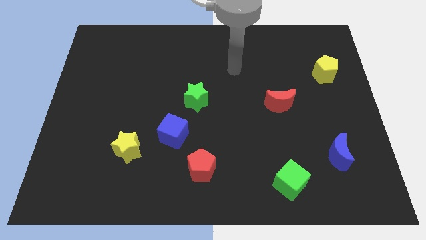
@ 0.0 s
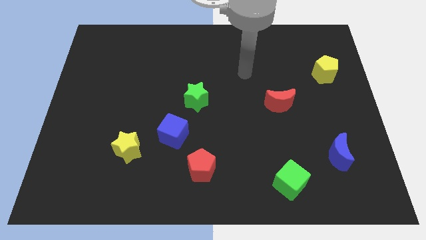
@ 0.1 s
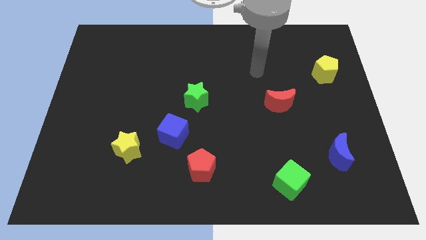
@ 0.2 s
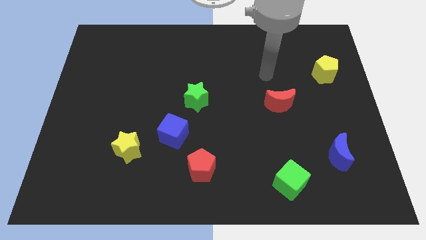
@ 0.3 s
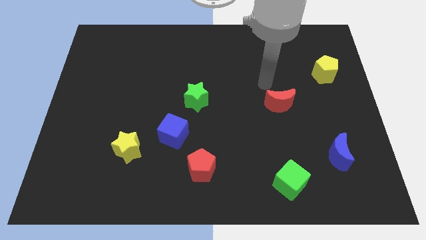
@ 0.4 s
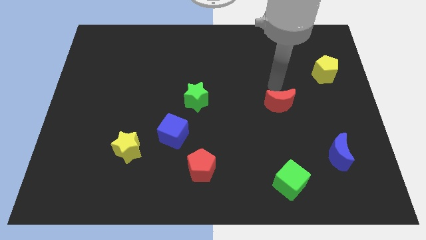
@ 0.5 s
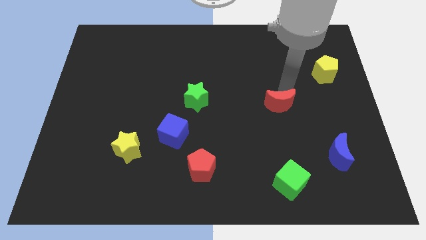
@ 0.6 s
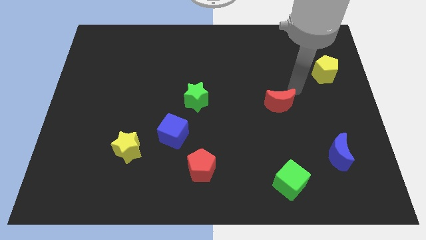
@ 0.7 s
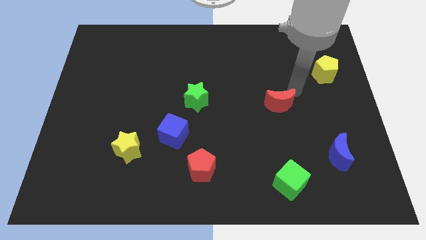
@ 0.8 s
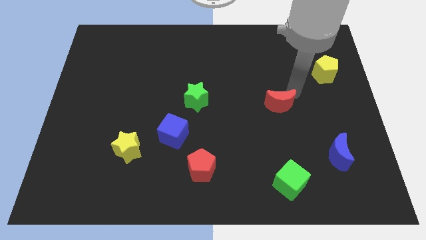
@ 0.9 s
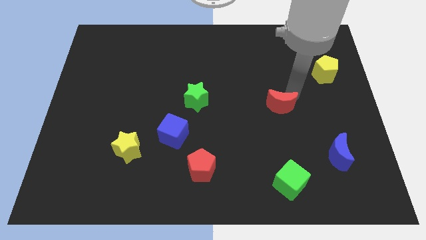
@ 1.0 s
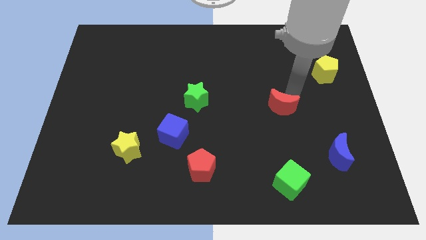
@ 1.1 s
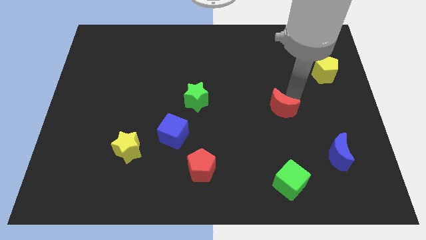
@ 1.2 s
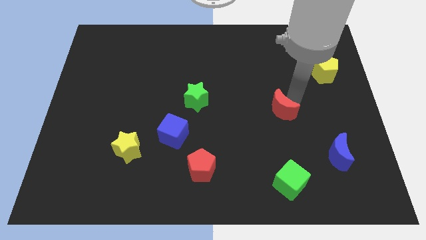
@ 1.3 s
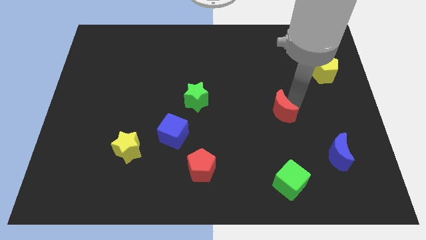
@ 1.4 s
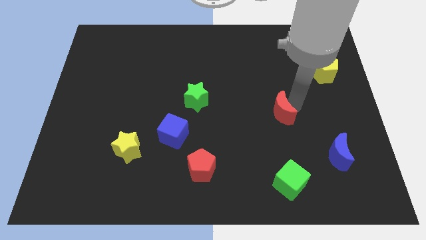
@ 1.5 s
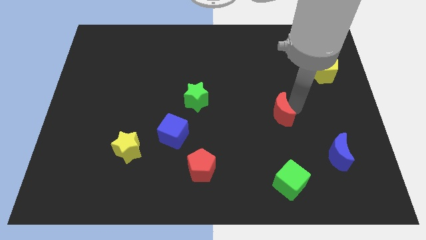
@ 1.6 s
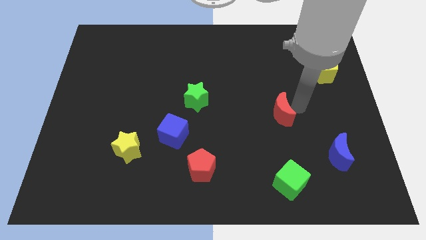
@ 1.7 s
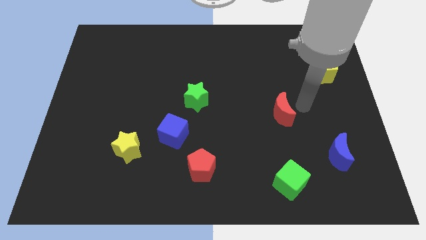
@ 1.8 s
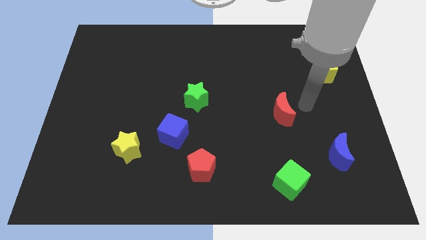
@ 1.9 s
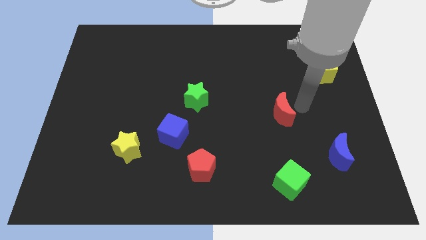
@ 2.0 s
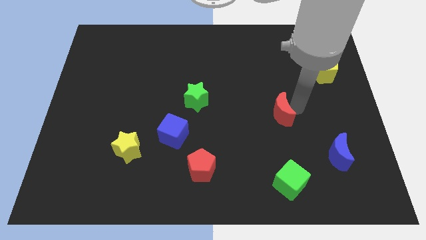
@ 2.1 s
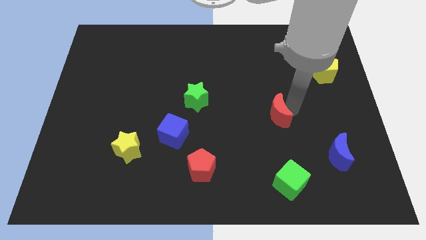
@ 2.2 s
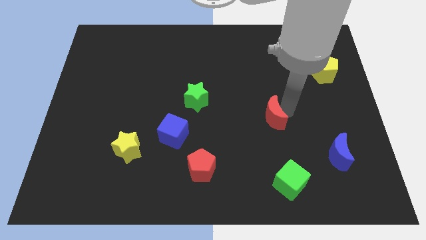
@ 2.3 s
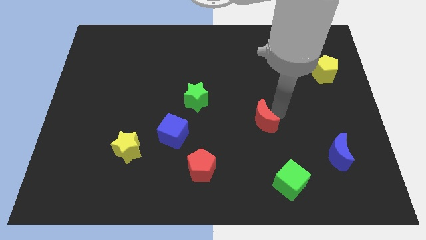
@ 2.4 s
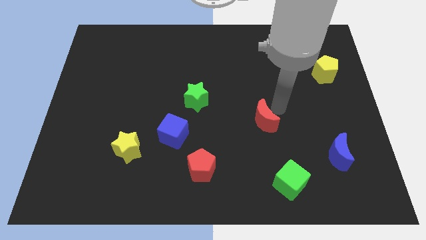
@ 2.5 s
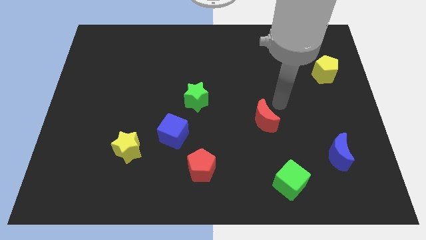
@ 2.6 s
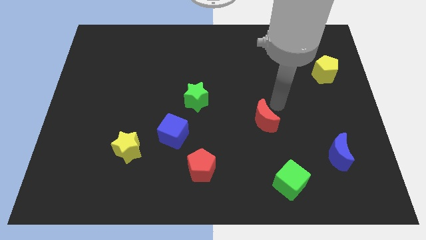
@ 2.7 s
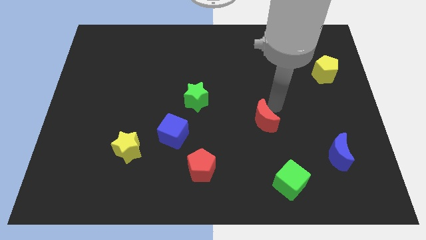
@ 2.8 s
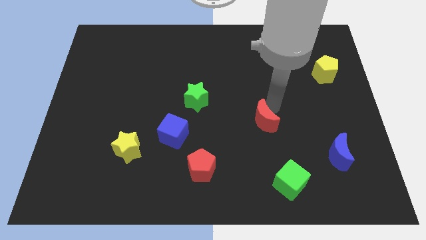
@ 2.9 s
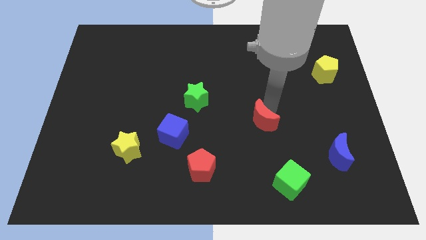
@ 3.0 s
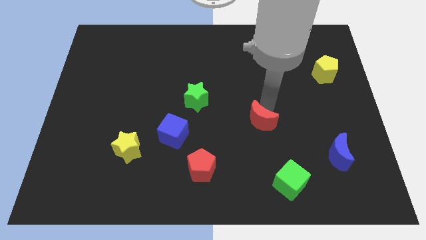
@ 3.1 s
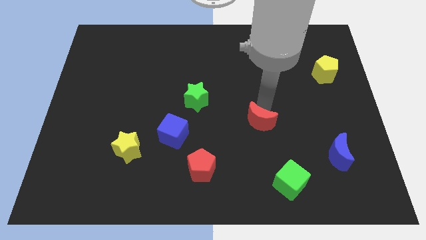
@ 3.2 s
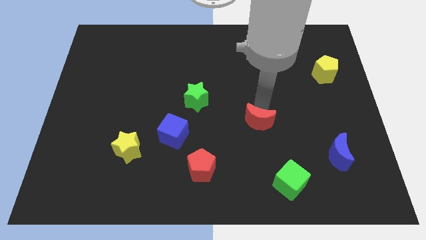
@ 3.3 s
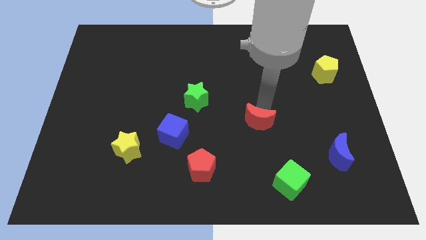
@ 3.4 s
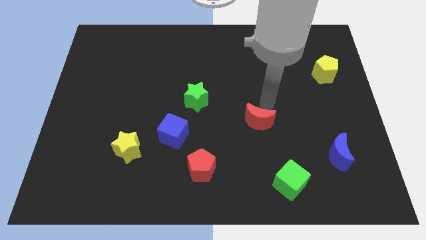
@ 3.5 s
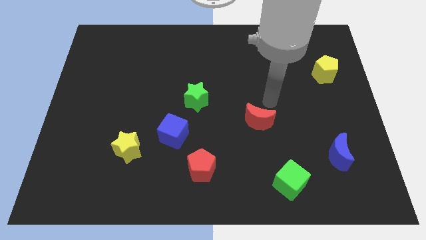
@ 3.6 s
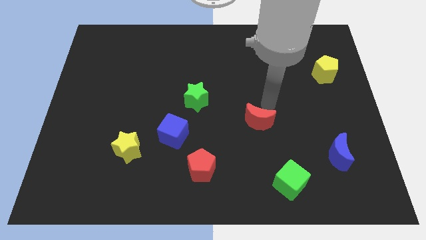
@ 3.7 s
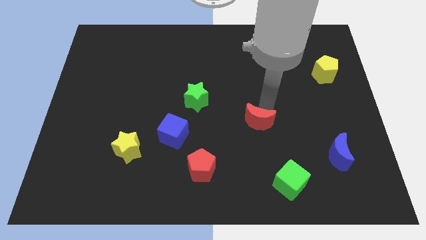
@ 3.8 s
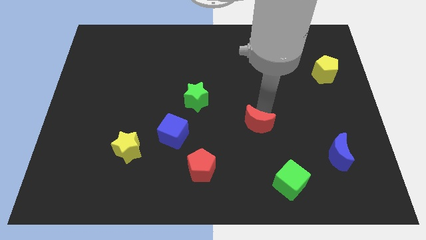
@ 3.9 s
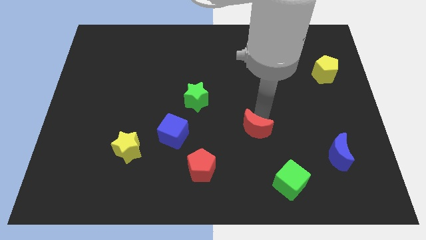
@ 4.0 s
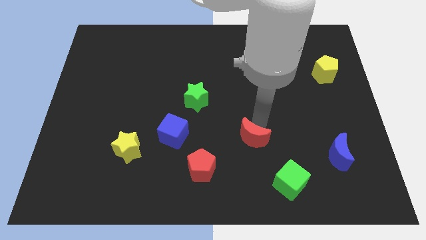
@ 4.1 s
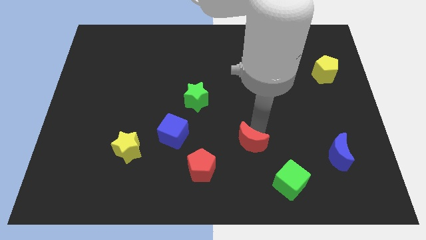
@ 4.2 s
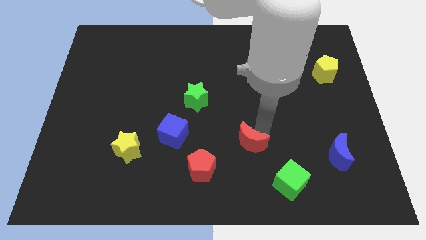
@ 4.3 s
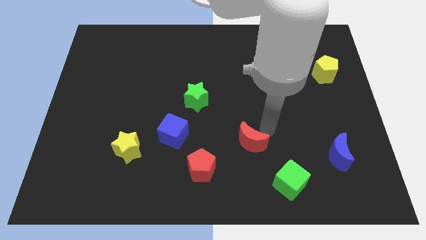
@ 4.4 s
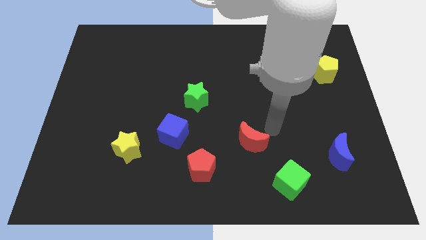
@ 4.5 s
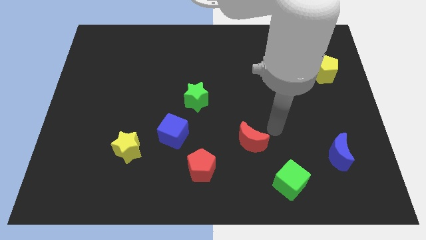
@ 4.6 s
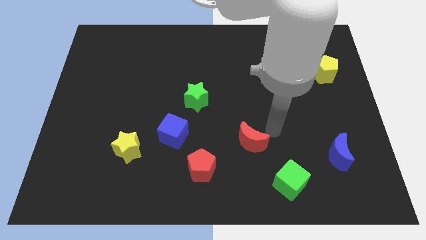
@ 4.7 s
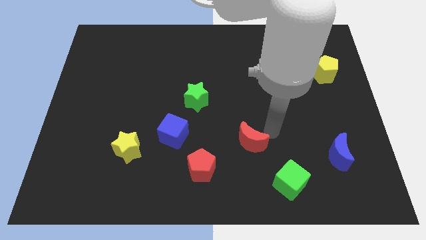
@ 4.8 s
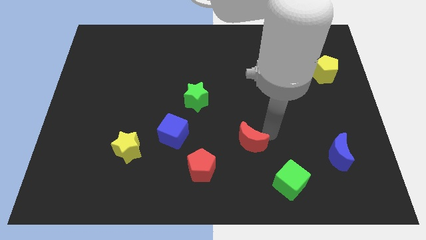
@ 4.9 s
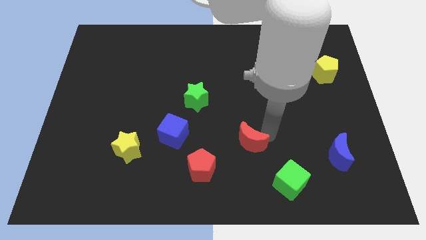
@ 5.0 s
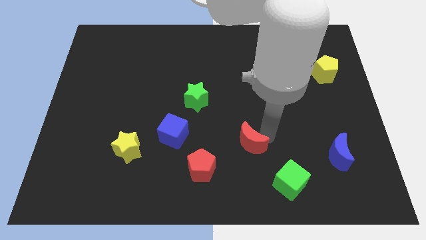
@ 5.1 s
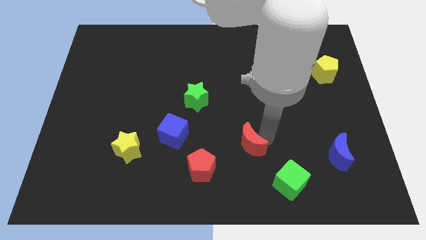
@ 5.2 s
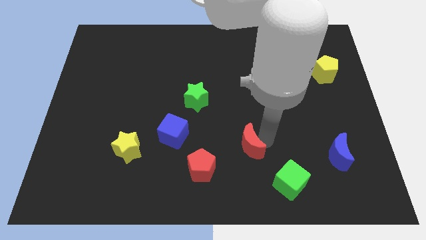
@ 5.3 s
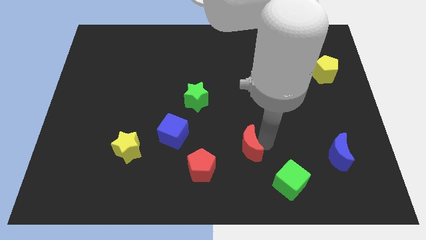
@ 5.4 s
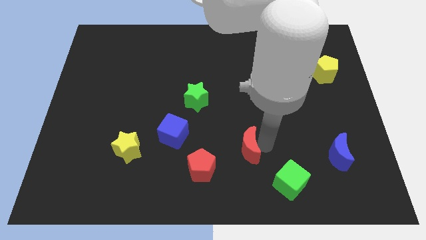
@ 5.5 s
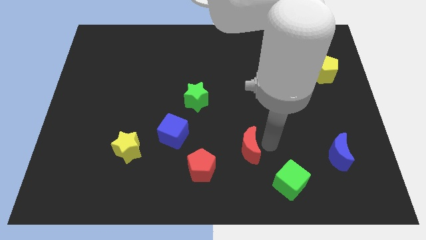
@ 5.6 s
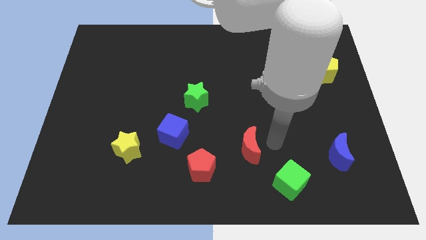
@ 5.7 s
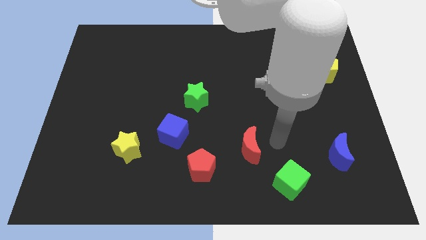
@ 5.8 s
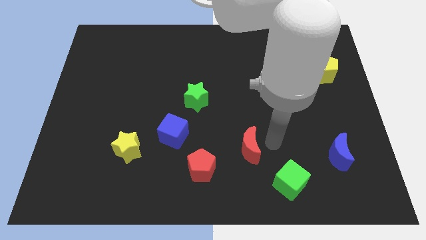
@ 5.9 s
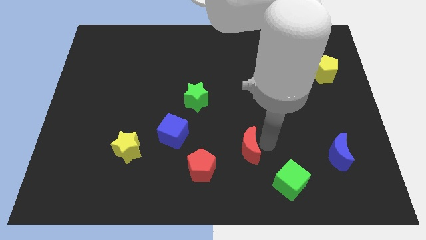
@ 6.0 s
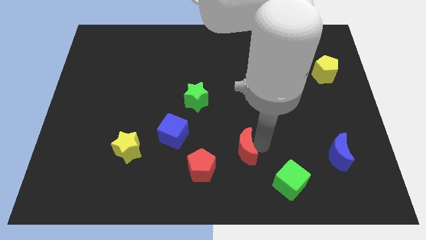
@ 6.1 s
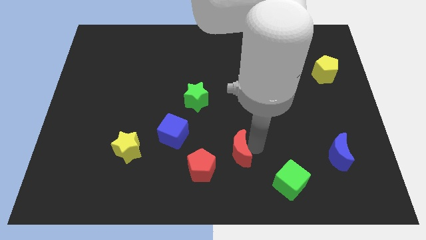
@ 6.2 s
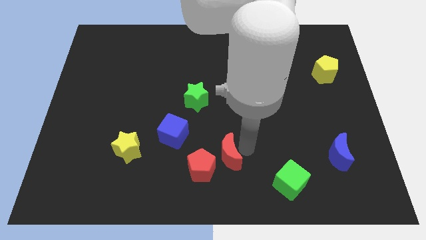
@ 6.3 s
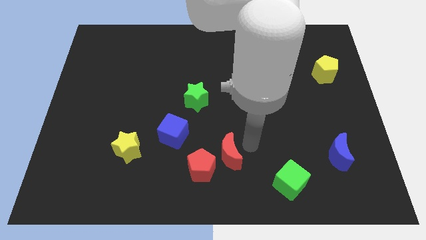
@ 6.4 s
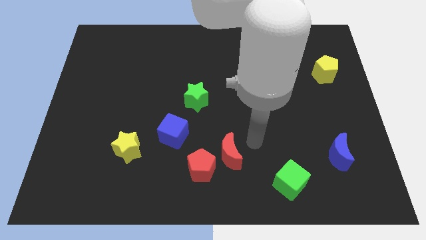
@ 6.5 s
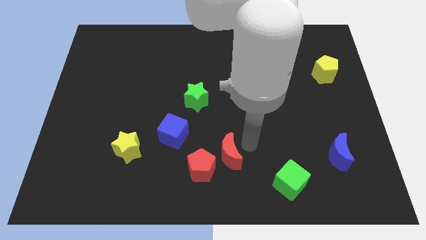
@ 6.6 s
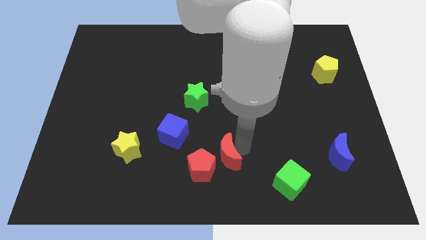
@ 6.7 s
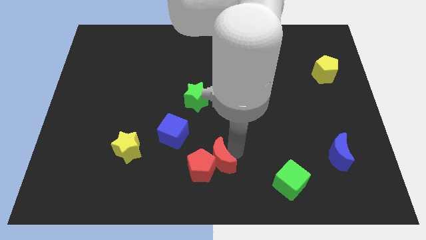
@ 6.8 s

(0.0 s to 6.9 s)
move the red moon close to the red pentagon

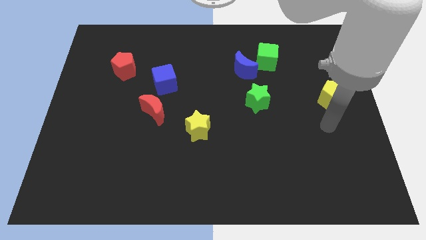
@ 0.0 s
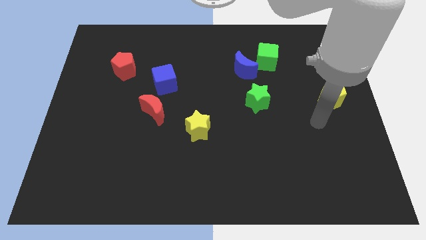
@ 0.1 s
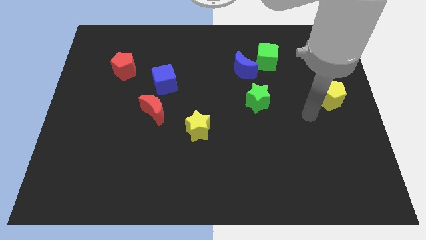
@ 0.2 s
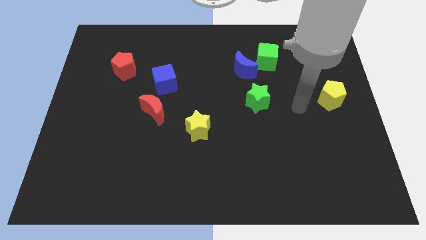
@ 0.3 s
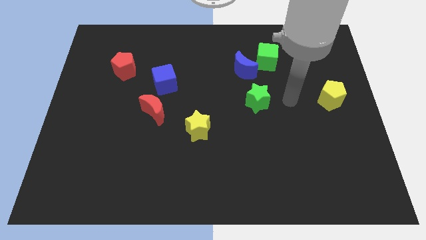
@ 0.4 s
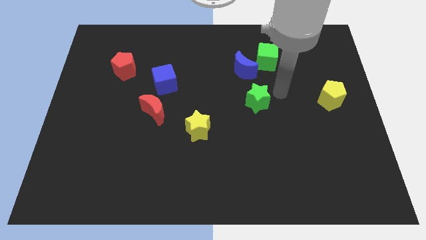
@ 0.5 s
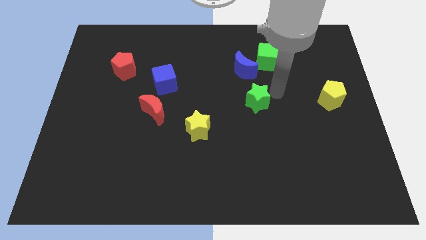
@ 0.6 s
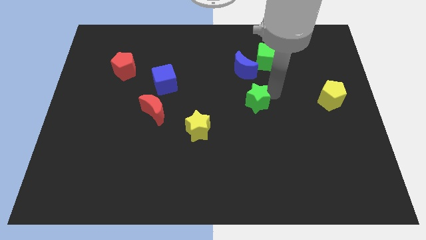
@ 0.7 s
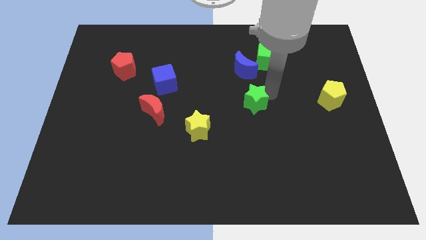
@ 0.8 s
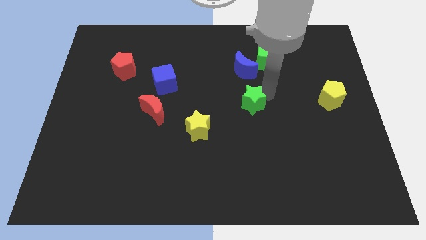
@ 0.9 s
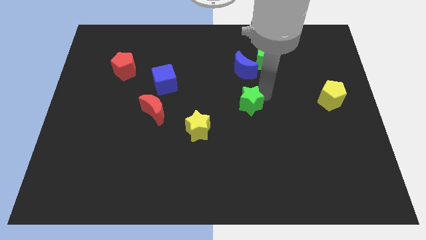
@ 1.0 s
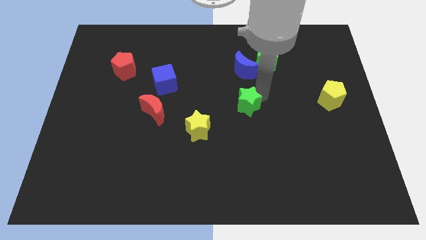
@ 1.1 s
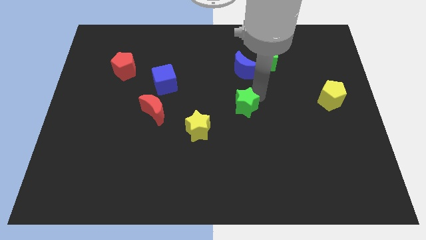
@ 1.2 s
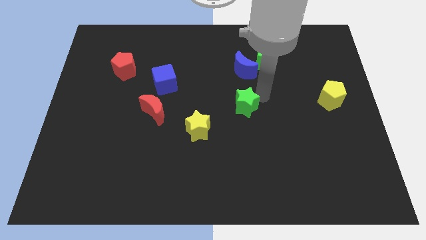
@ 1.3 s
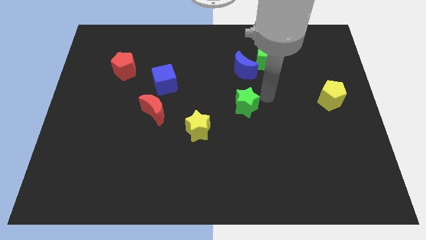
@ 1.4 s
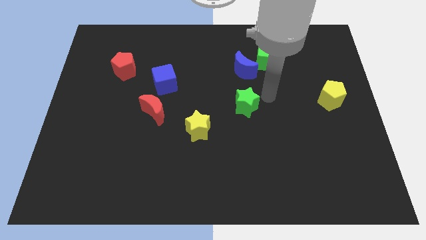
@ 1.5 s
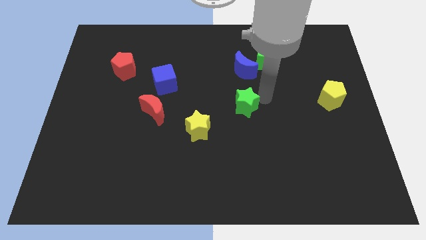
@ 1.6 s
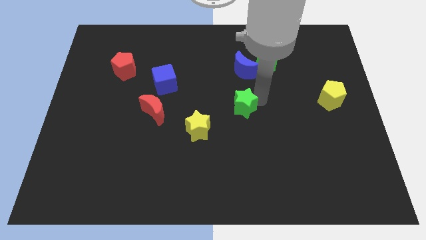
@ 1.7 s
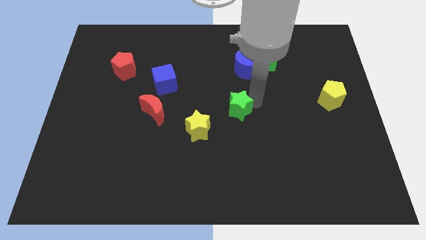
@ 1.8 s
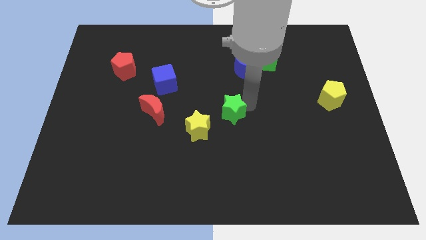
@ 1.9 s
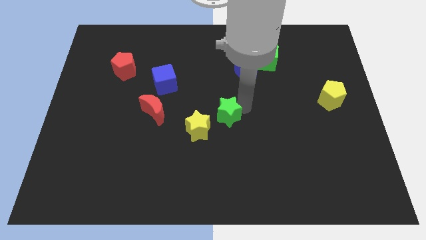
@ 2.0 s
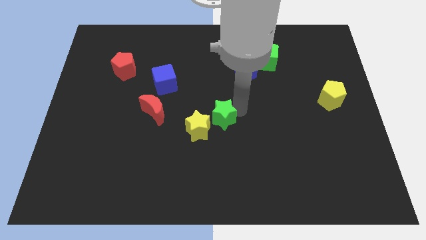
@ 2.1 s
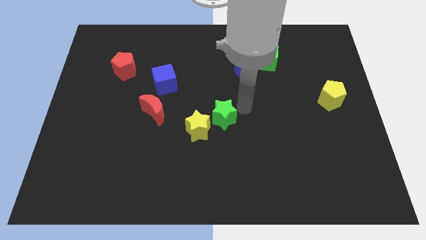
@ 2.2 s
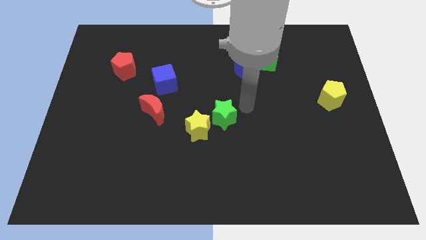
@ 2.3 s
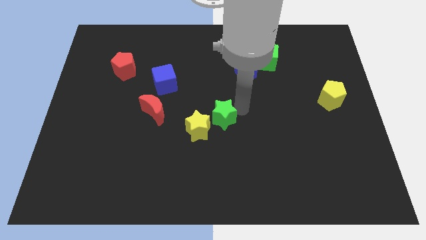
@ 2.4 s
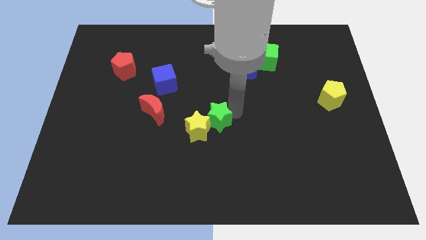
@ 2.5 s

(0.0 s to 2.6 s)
put the green star to the yellow star
